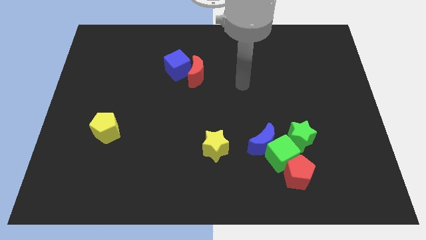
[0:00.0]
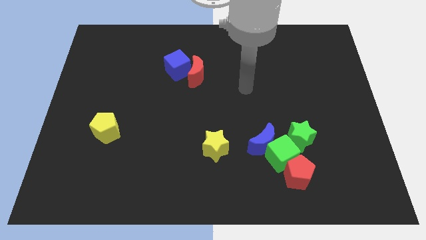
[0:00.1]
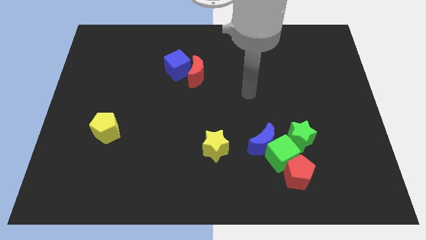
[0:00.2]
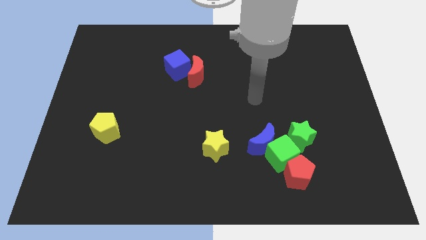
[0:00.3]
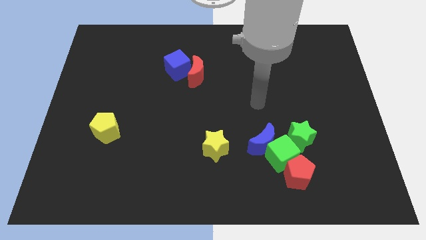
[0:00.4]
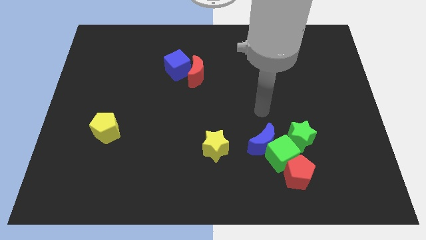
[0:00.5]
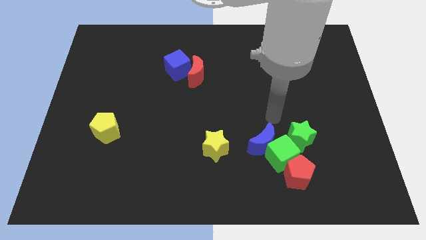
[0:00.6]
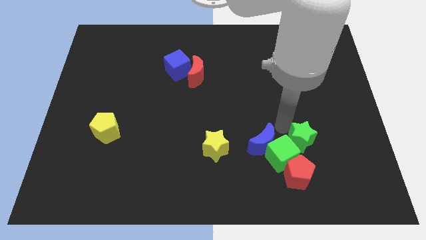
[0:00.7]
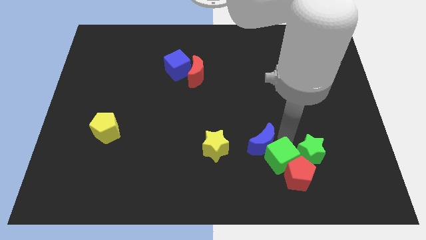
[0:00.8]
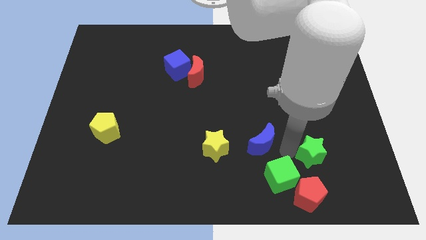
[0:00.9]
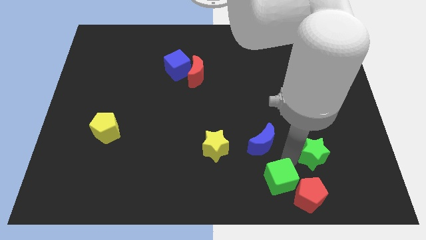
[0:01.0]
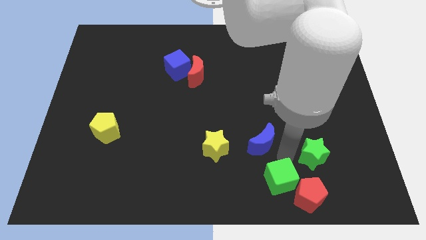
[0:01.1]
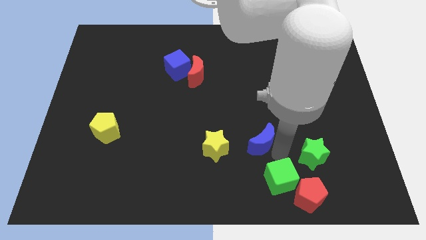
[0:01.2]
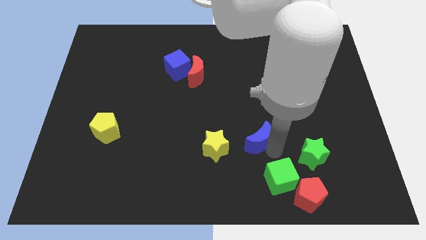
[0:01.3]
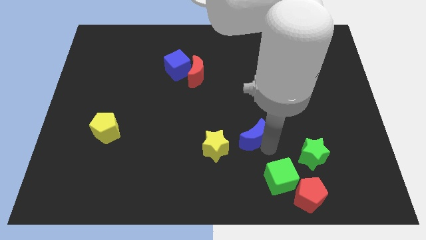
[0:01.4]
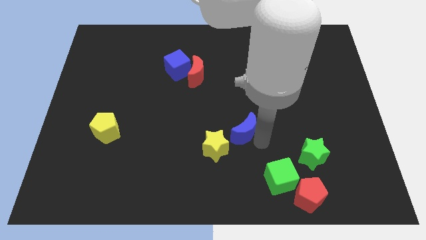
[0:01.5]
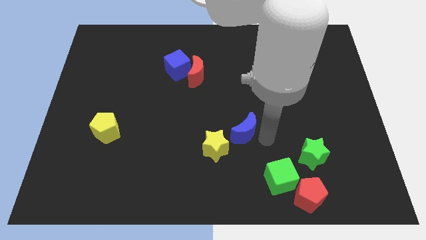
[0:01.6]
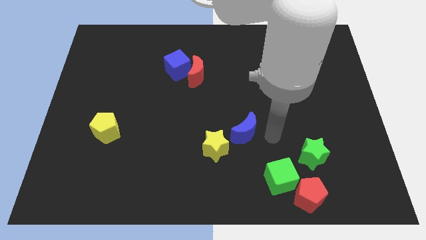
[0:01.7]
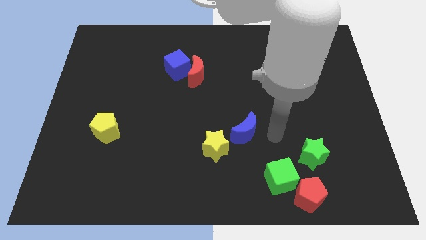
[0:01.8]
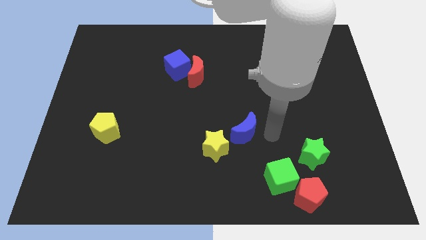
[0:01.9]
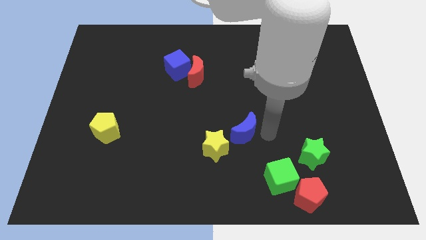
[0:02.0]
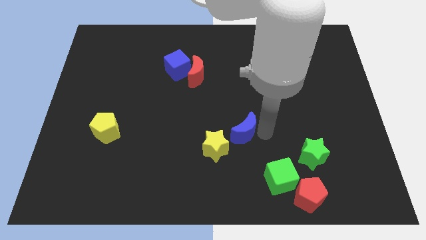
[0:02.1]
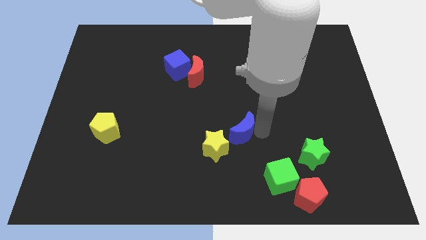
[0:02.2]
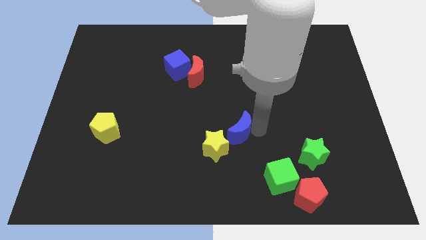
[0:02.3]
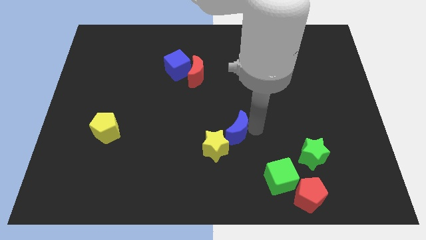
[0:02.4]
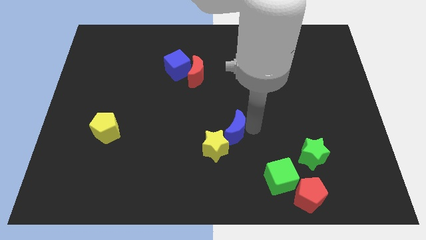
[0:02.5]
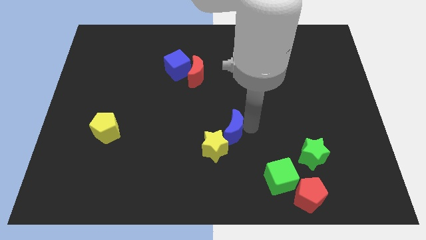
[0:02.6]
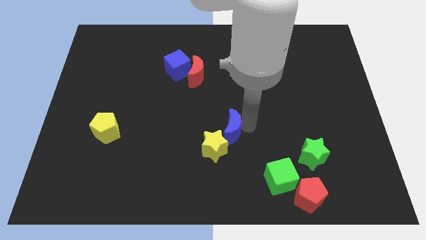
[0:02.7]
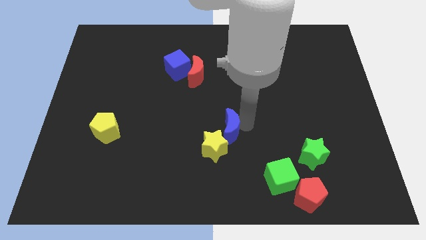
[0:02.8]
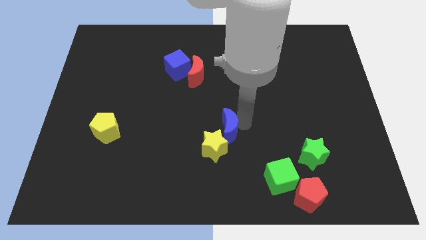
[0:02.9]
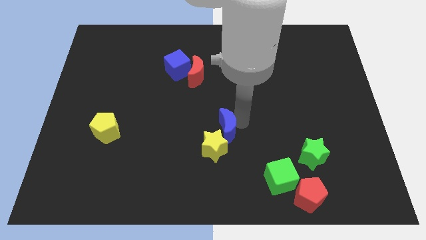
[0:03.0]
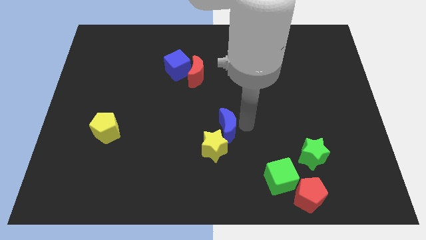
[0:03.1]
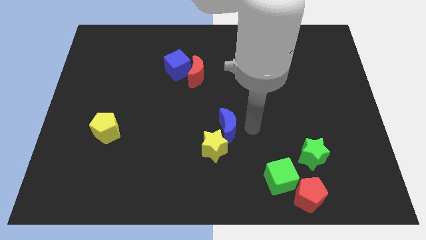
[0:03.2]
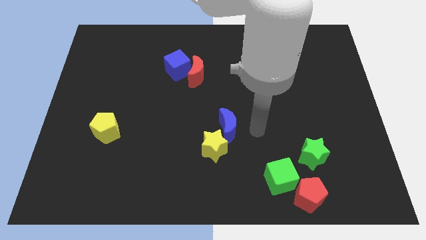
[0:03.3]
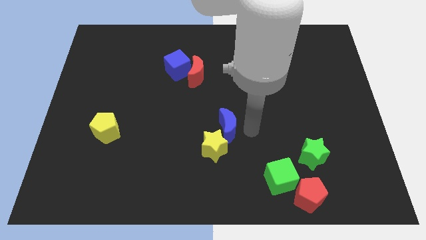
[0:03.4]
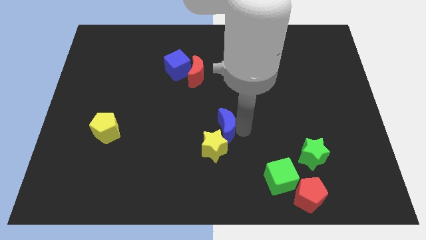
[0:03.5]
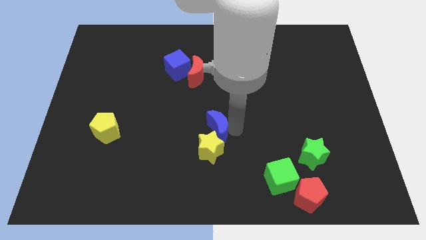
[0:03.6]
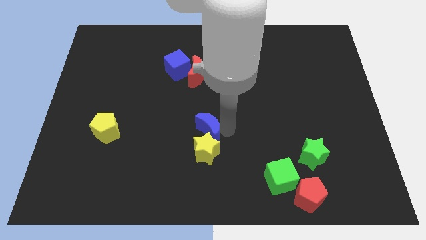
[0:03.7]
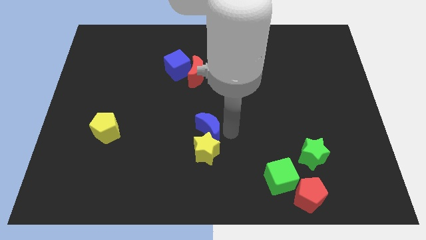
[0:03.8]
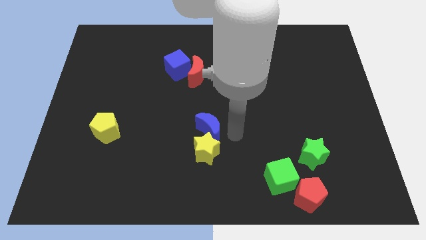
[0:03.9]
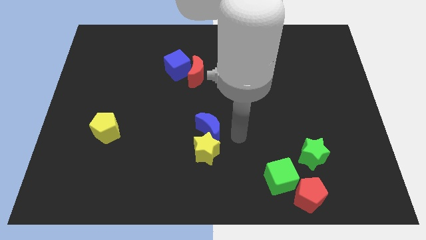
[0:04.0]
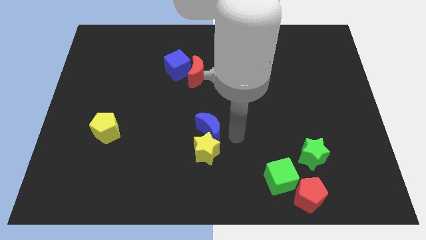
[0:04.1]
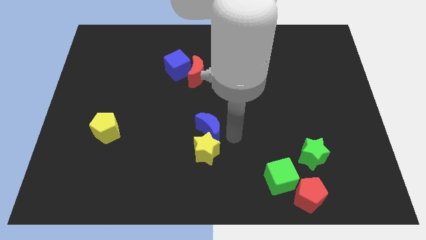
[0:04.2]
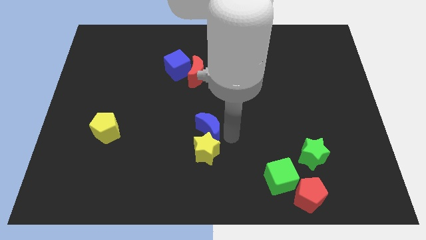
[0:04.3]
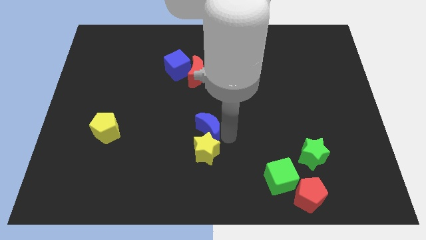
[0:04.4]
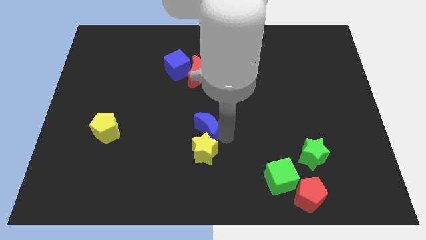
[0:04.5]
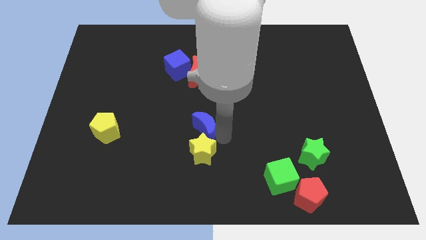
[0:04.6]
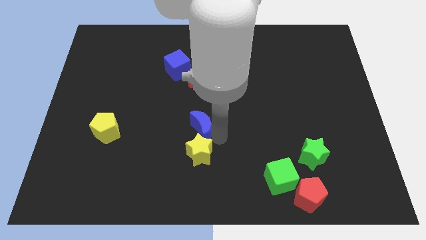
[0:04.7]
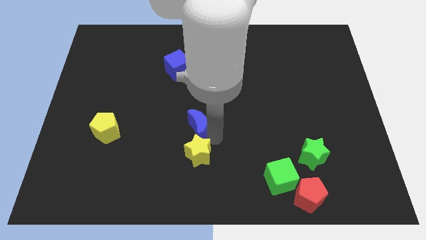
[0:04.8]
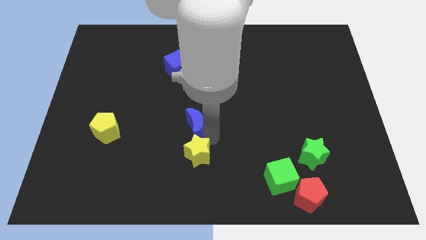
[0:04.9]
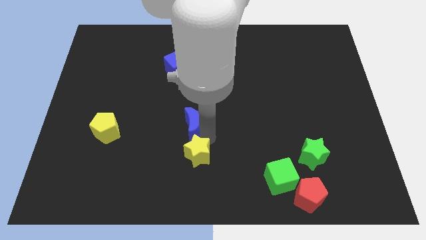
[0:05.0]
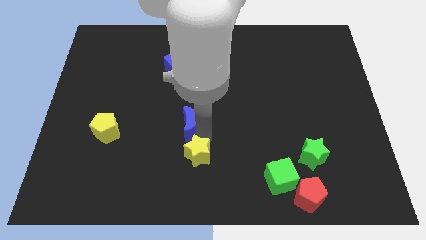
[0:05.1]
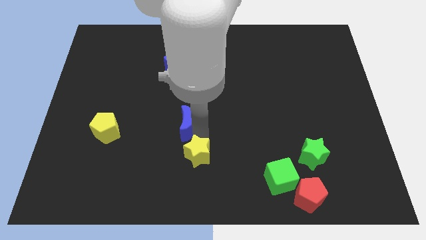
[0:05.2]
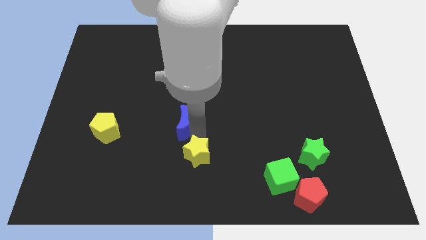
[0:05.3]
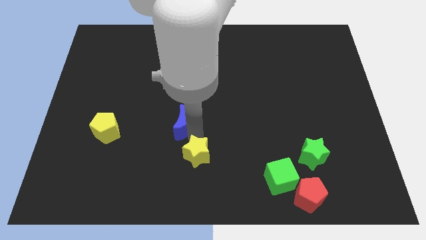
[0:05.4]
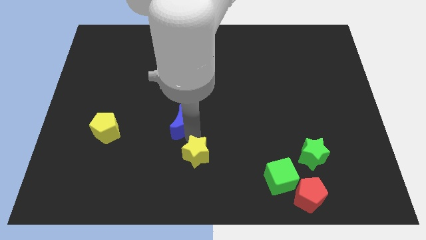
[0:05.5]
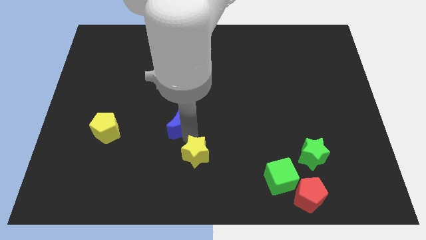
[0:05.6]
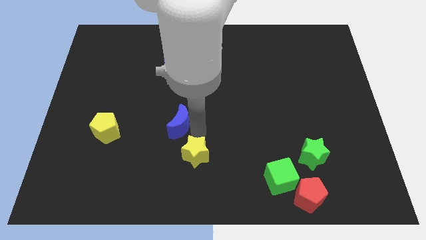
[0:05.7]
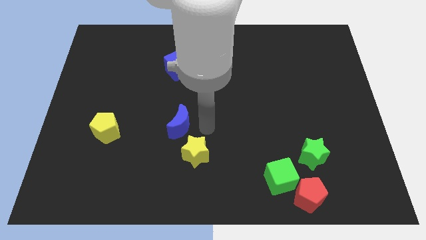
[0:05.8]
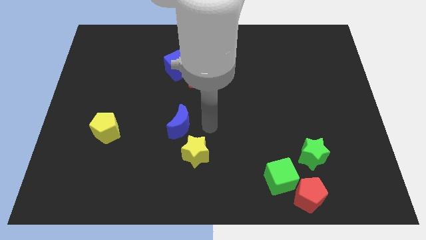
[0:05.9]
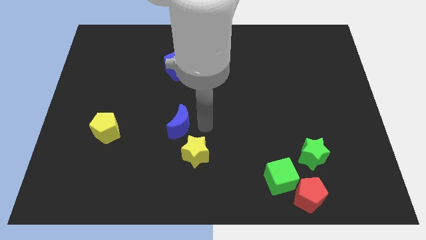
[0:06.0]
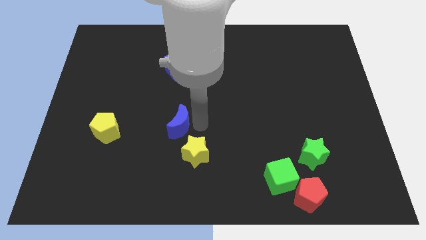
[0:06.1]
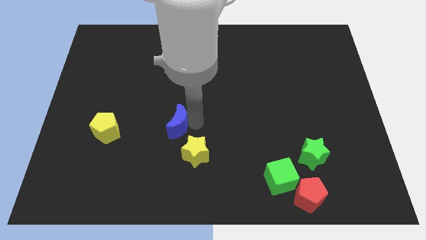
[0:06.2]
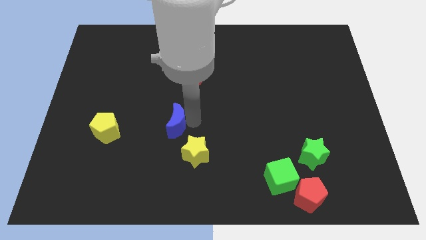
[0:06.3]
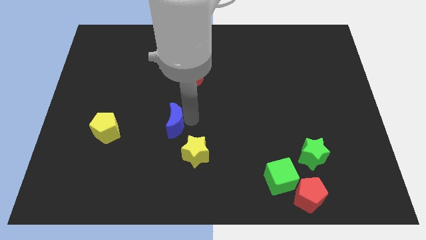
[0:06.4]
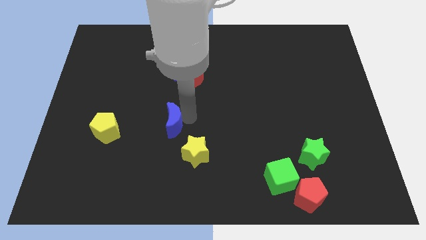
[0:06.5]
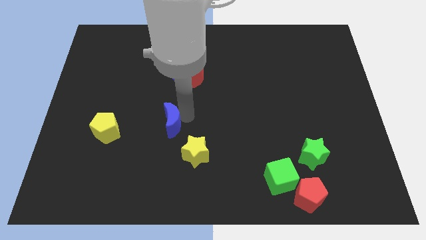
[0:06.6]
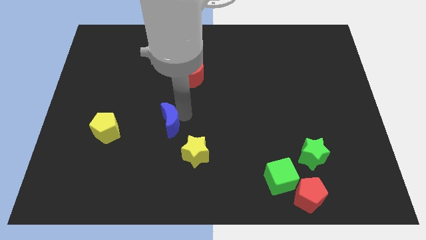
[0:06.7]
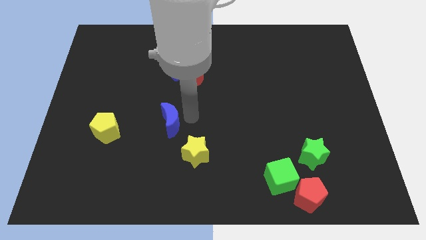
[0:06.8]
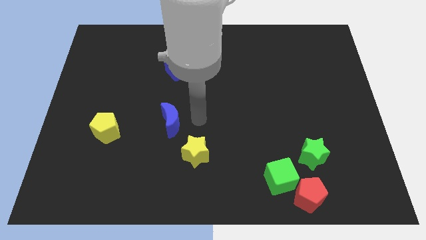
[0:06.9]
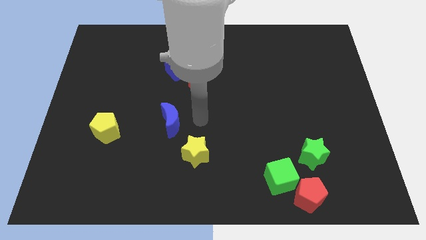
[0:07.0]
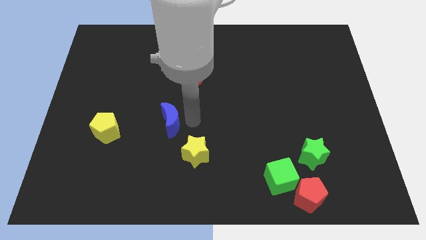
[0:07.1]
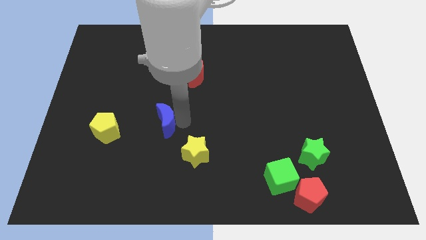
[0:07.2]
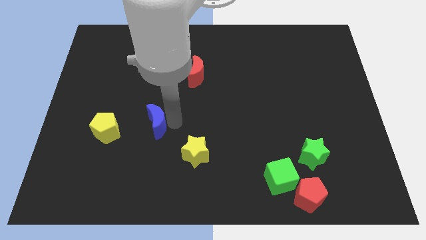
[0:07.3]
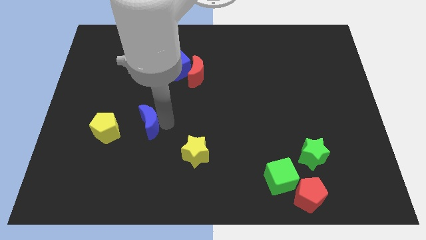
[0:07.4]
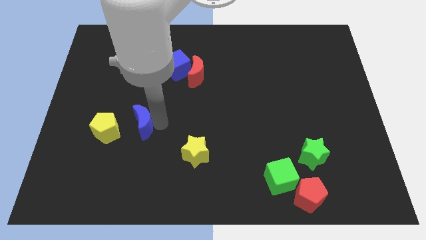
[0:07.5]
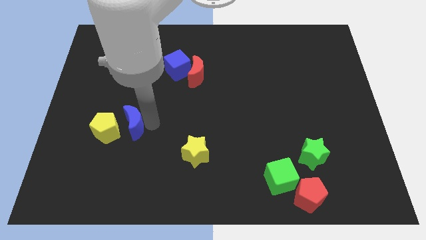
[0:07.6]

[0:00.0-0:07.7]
put the blue moon next to the yellow pentagon
